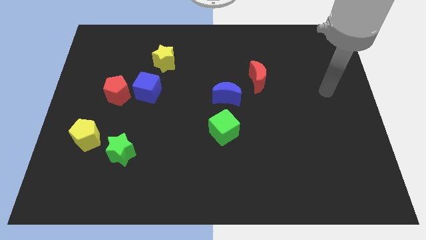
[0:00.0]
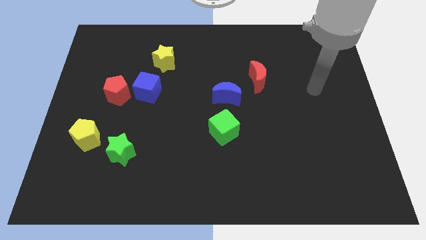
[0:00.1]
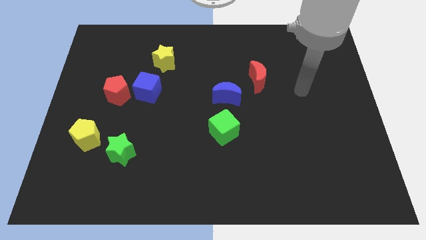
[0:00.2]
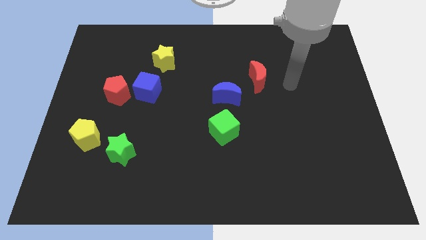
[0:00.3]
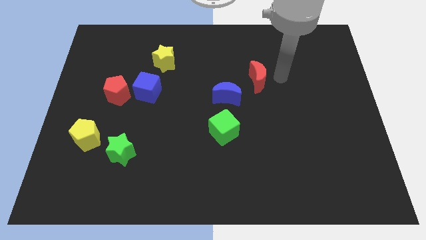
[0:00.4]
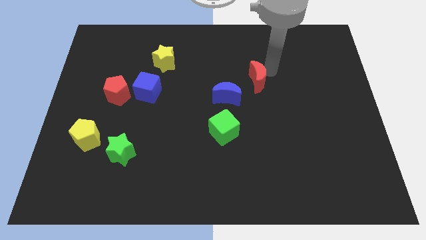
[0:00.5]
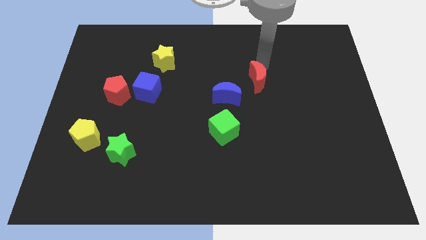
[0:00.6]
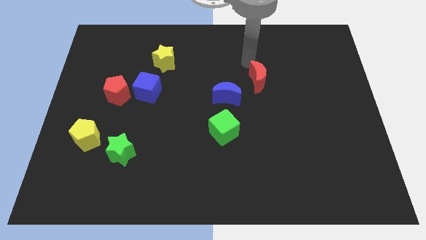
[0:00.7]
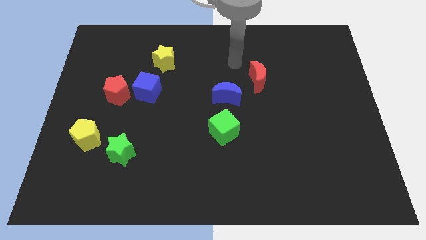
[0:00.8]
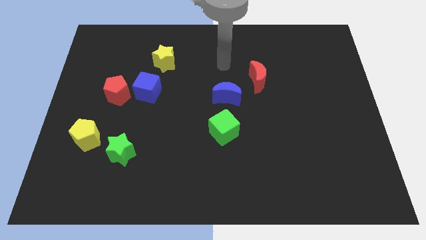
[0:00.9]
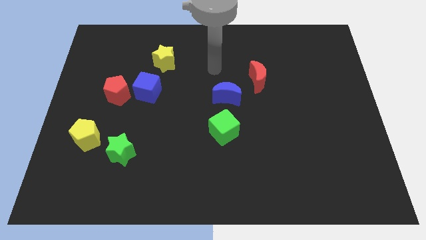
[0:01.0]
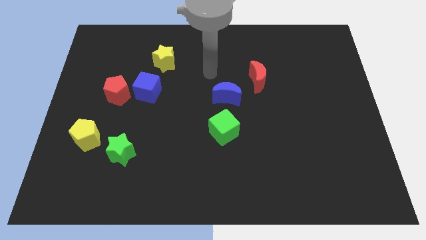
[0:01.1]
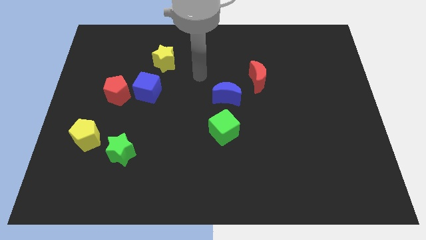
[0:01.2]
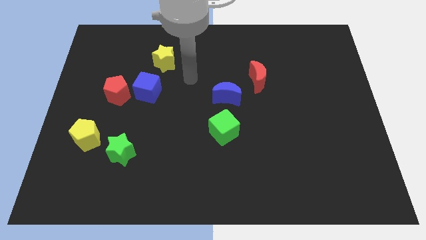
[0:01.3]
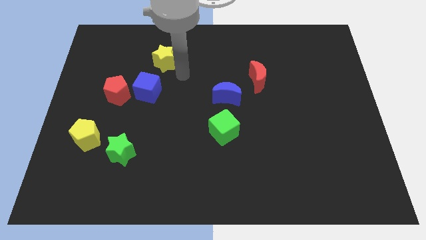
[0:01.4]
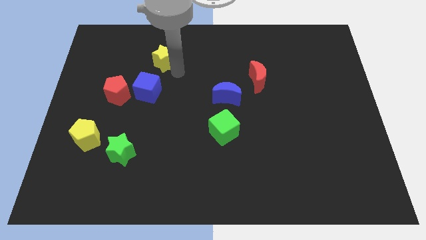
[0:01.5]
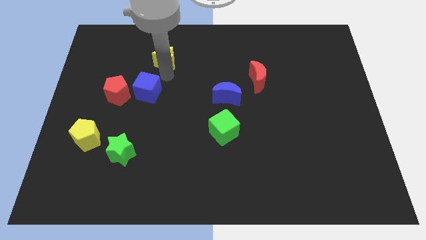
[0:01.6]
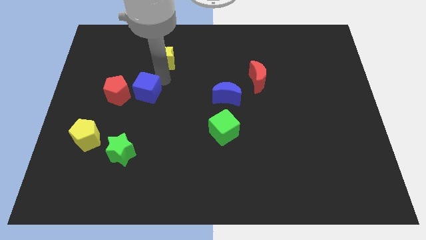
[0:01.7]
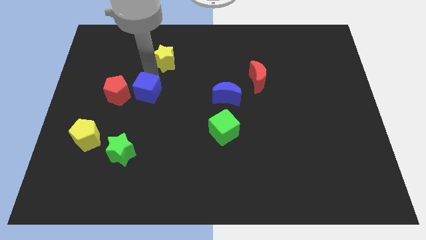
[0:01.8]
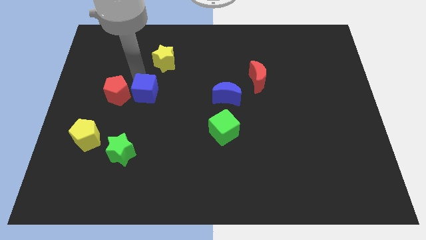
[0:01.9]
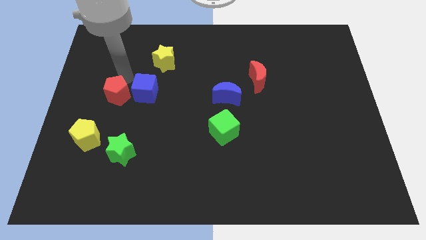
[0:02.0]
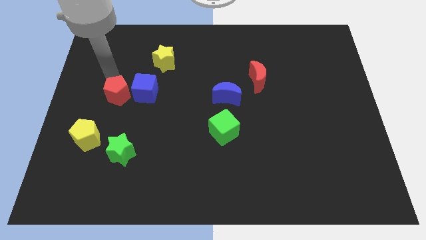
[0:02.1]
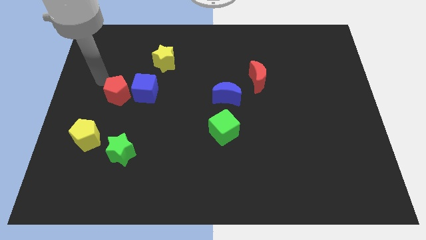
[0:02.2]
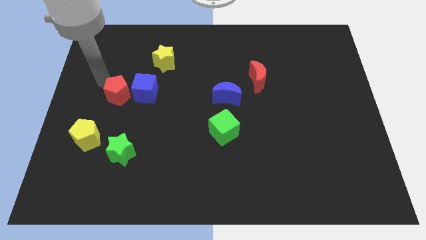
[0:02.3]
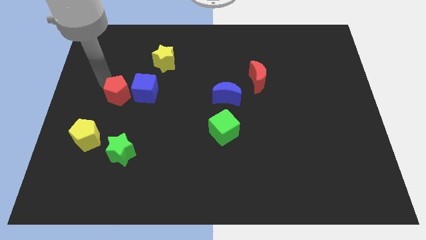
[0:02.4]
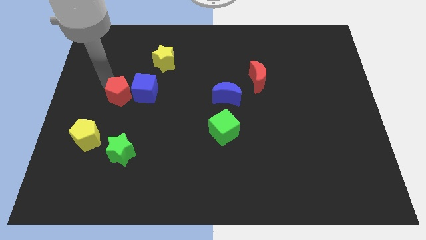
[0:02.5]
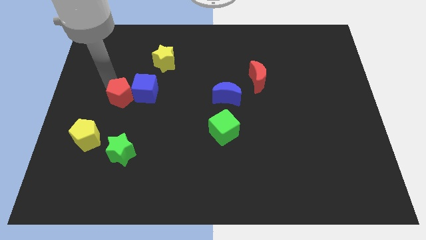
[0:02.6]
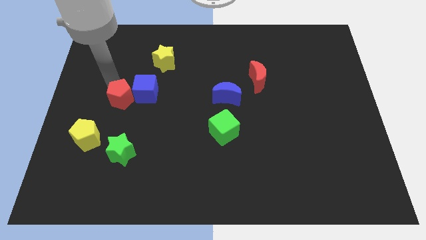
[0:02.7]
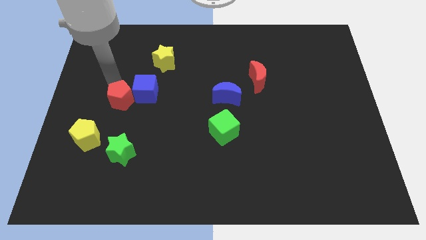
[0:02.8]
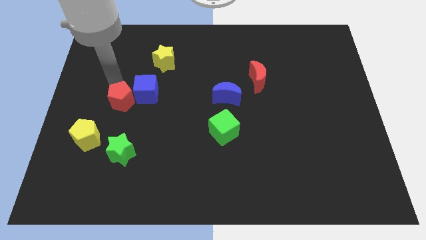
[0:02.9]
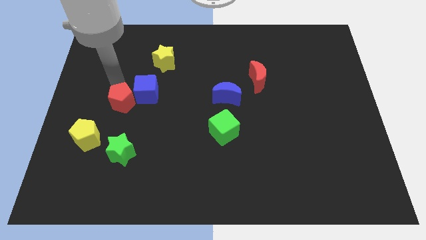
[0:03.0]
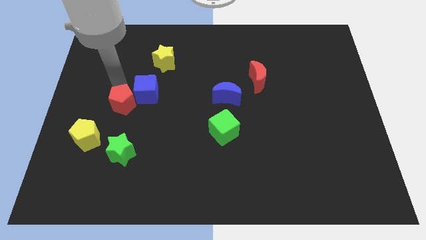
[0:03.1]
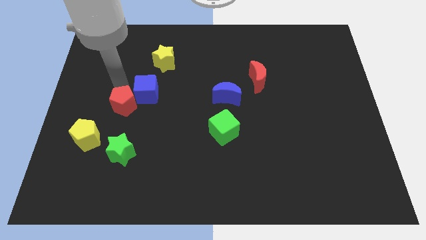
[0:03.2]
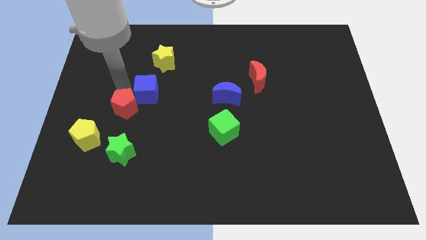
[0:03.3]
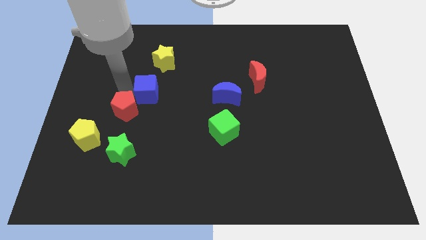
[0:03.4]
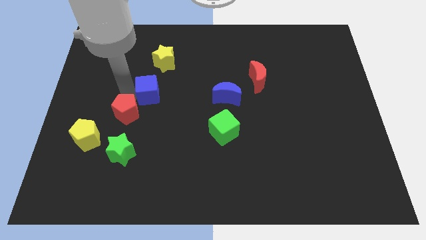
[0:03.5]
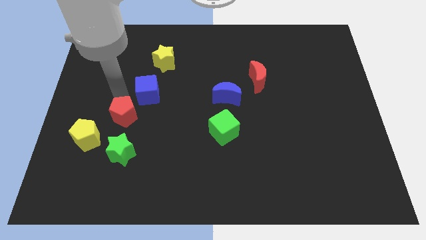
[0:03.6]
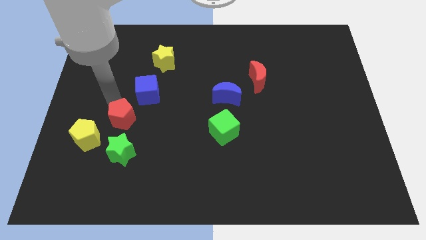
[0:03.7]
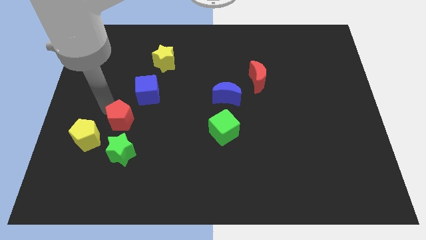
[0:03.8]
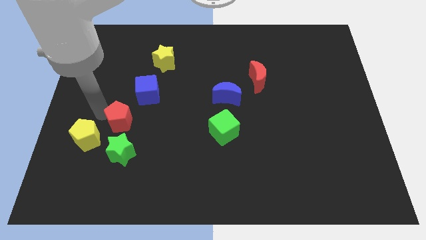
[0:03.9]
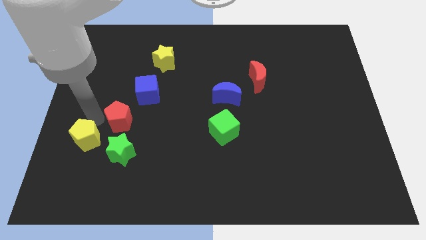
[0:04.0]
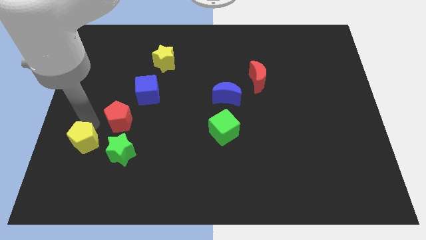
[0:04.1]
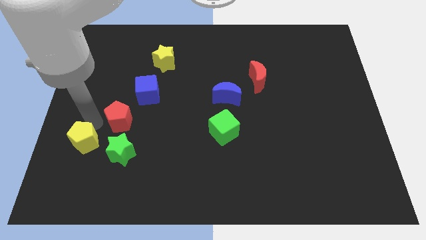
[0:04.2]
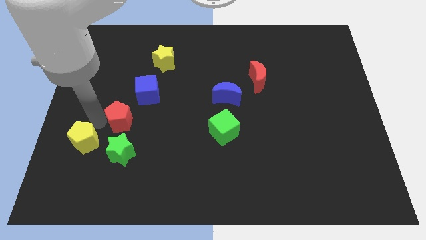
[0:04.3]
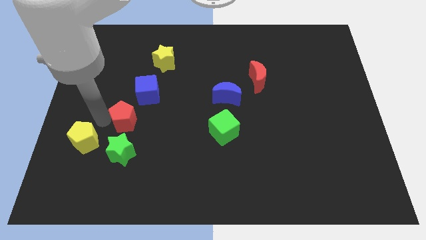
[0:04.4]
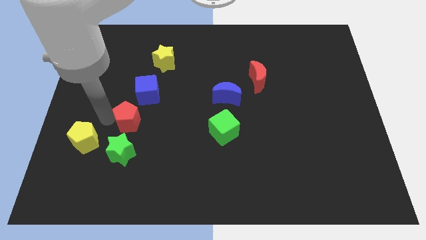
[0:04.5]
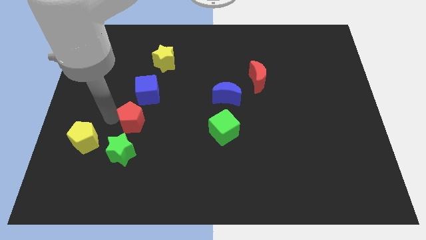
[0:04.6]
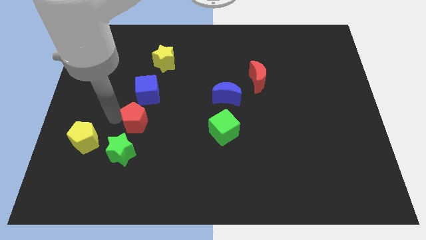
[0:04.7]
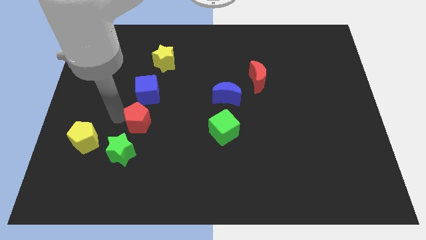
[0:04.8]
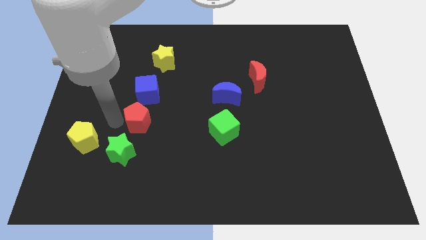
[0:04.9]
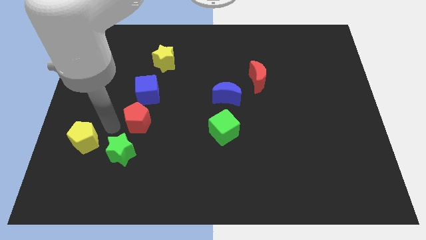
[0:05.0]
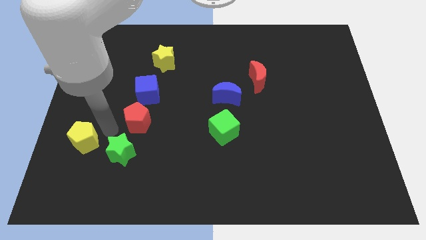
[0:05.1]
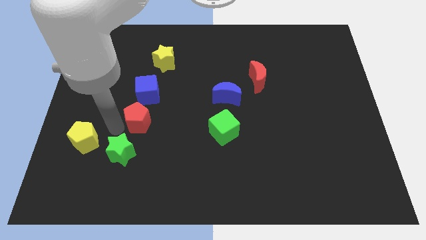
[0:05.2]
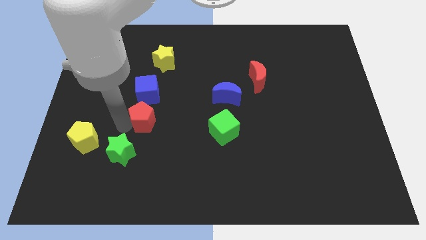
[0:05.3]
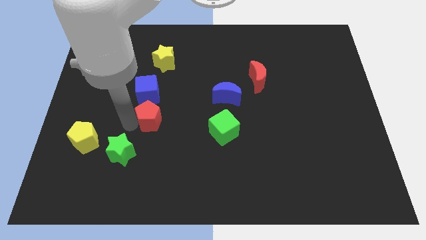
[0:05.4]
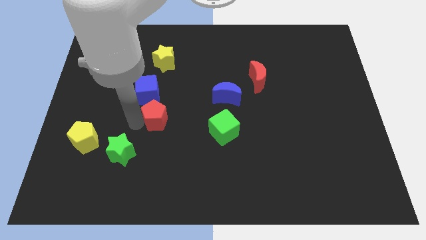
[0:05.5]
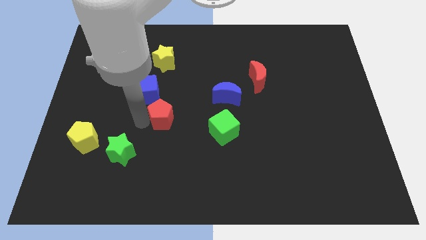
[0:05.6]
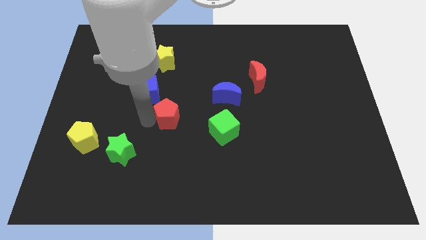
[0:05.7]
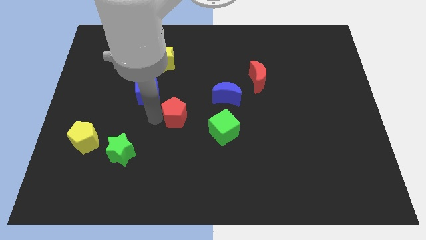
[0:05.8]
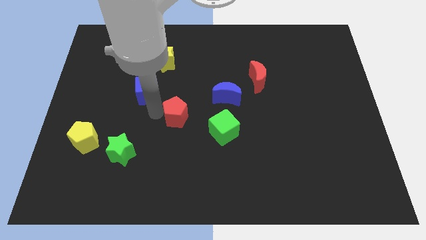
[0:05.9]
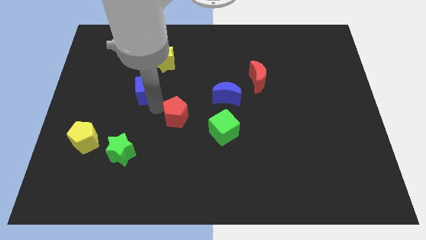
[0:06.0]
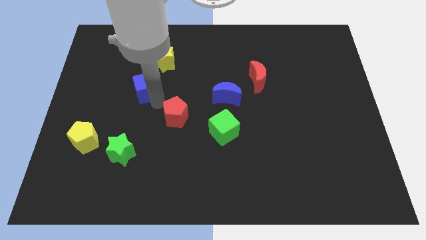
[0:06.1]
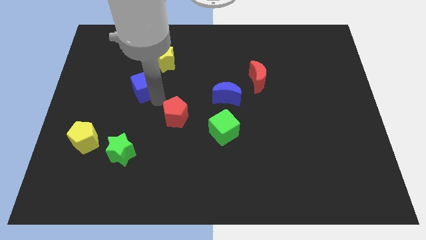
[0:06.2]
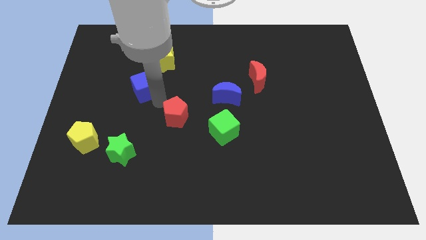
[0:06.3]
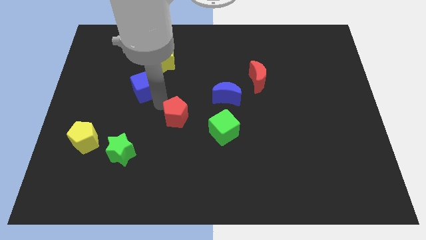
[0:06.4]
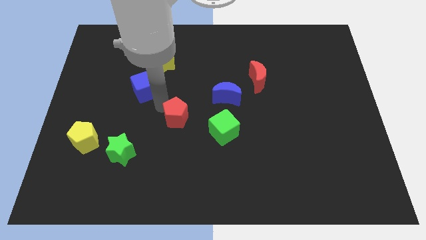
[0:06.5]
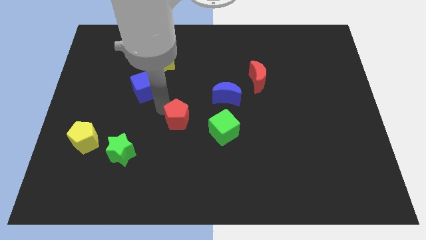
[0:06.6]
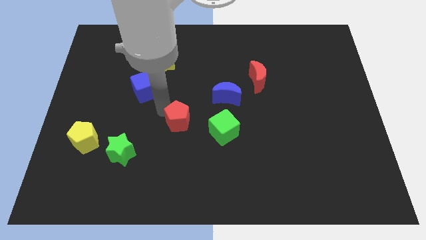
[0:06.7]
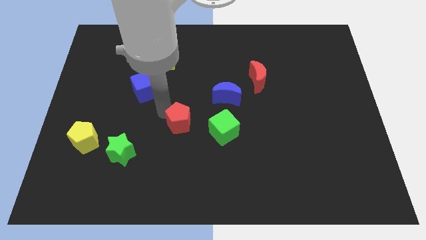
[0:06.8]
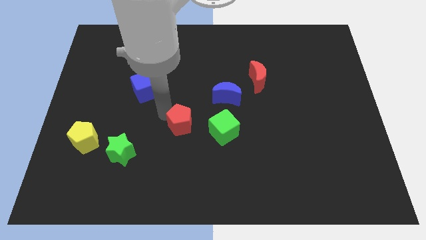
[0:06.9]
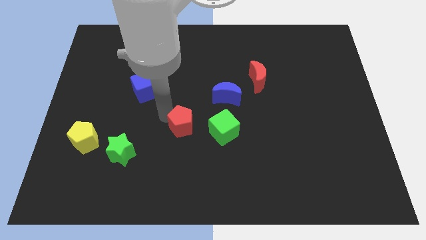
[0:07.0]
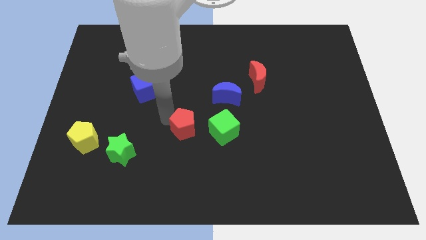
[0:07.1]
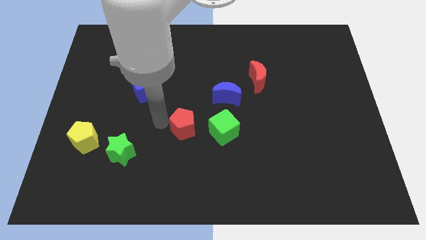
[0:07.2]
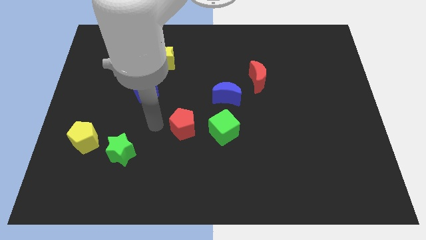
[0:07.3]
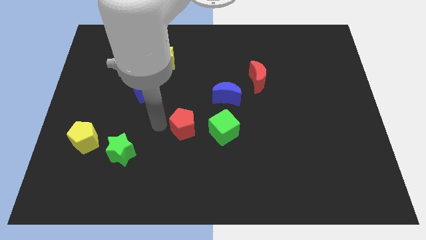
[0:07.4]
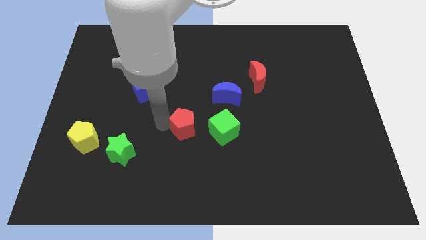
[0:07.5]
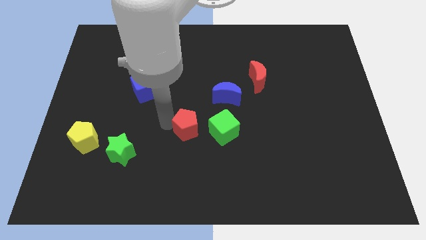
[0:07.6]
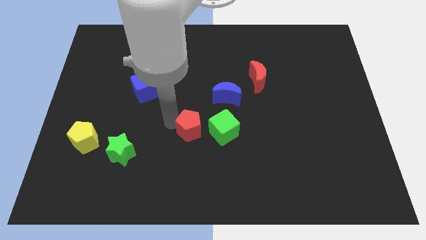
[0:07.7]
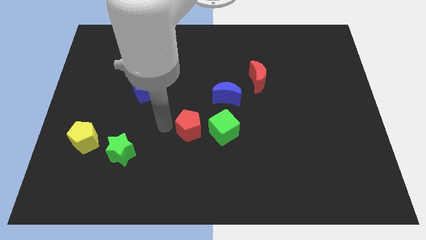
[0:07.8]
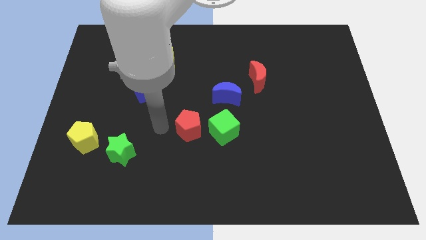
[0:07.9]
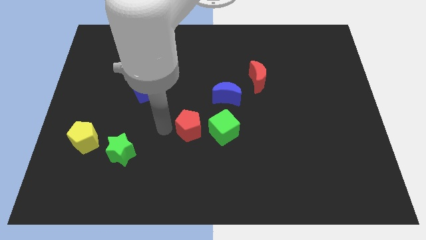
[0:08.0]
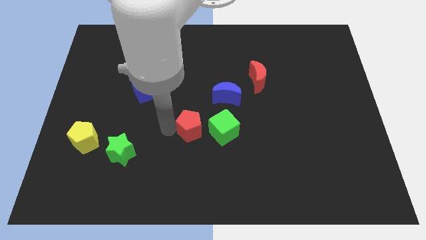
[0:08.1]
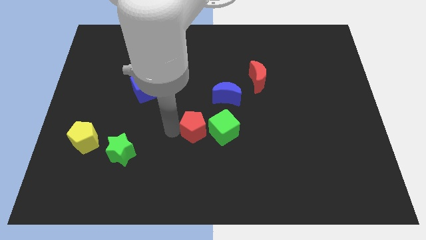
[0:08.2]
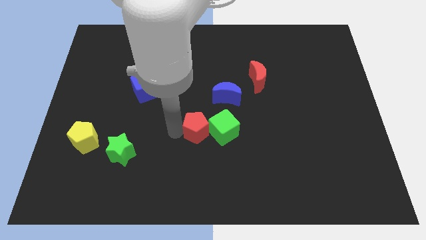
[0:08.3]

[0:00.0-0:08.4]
put the red pentagon next to the green cube
